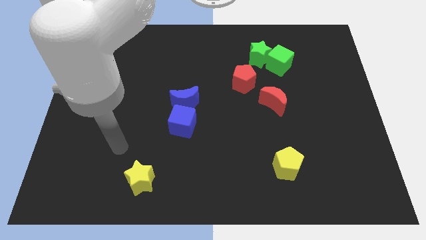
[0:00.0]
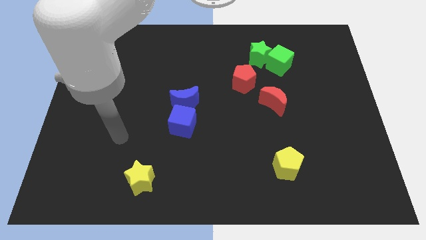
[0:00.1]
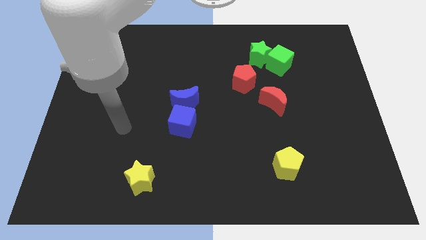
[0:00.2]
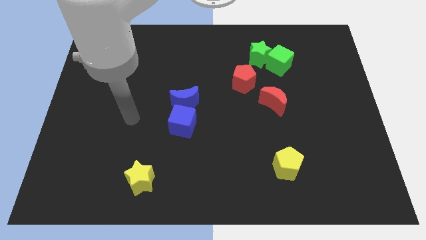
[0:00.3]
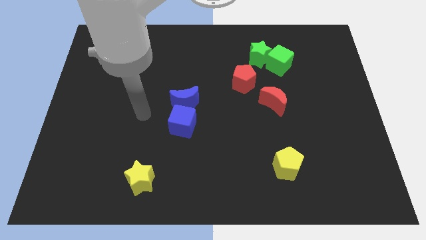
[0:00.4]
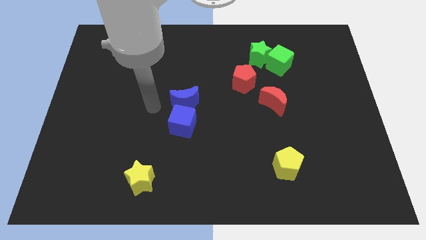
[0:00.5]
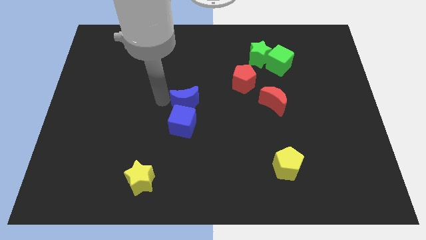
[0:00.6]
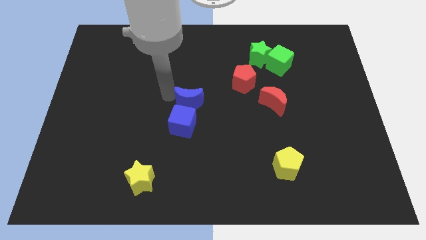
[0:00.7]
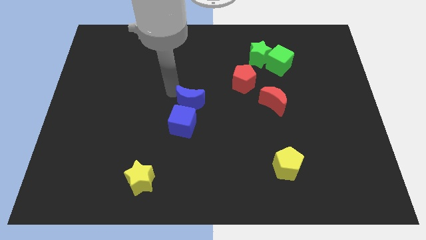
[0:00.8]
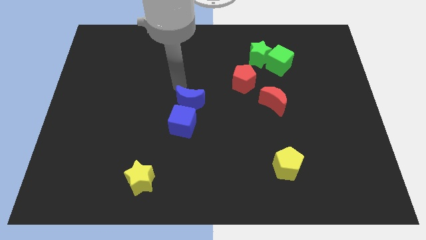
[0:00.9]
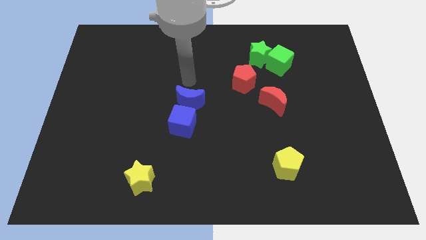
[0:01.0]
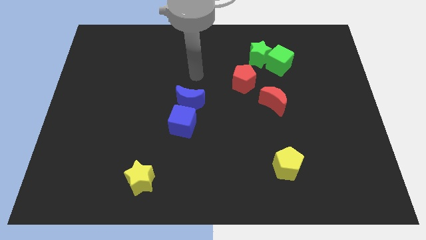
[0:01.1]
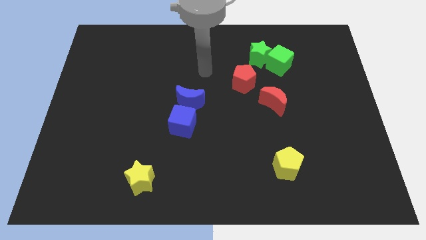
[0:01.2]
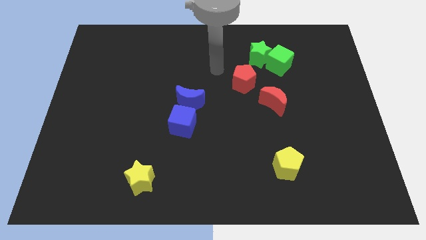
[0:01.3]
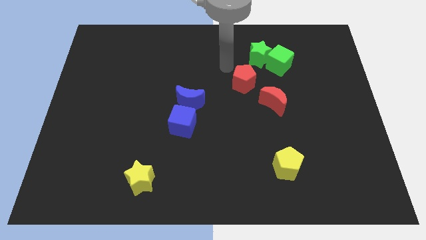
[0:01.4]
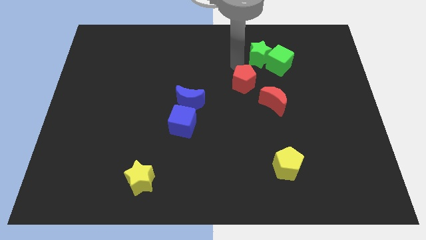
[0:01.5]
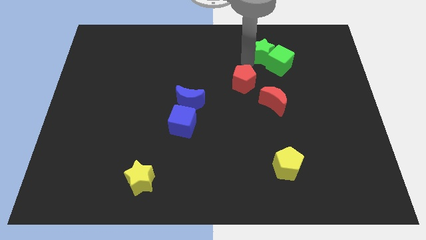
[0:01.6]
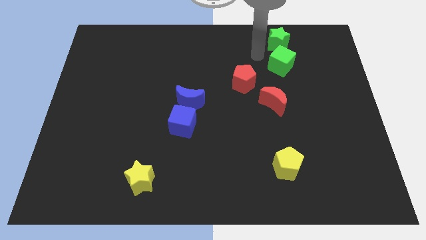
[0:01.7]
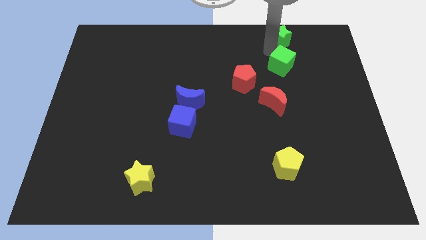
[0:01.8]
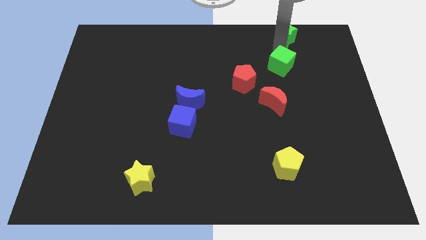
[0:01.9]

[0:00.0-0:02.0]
pull the green cube apart from the green star

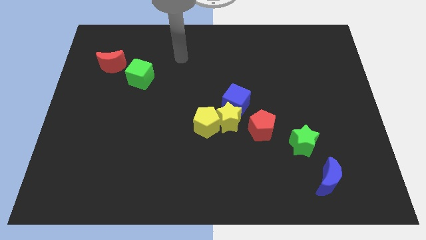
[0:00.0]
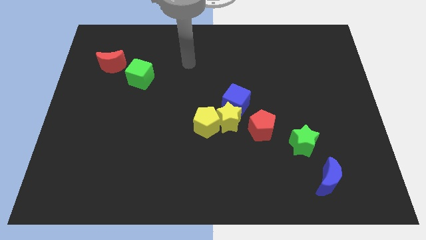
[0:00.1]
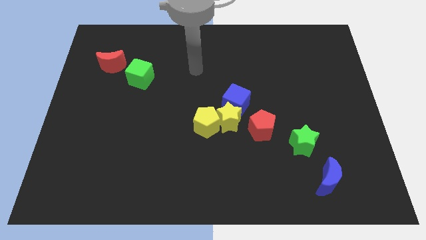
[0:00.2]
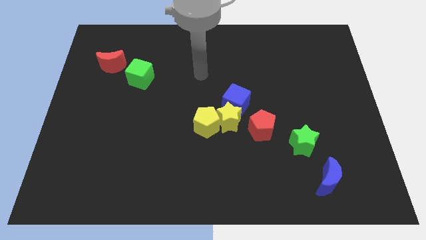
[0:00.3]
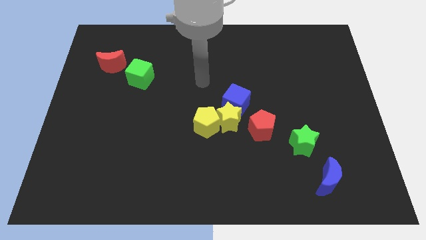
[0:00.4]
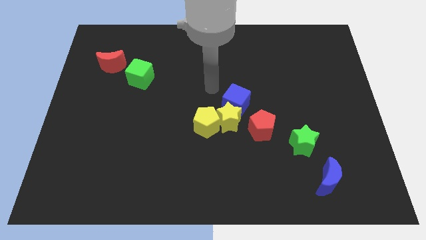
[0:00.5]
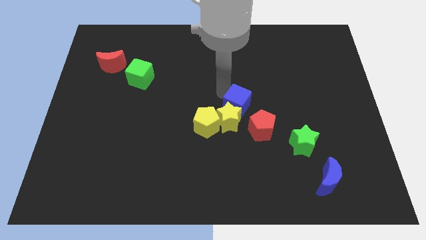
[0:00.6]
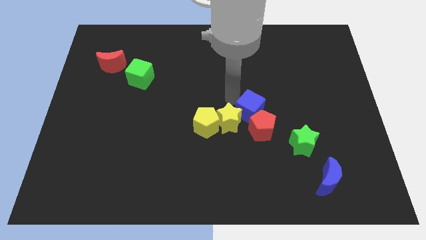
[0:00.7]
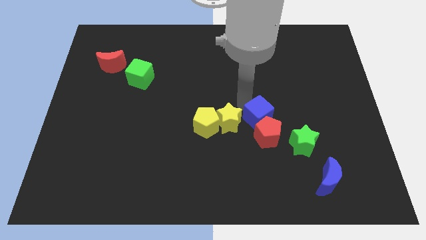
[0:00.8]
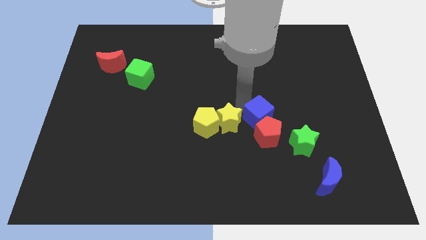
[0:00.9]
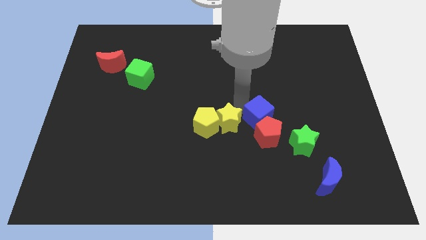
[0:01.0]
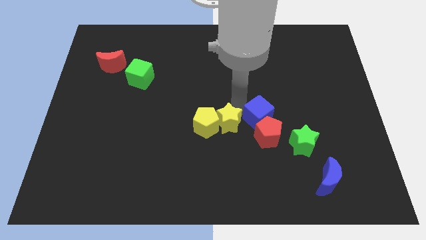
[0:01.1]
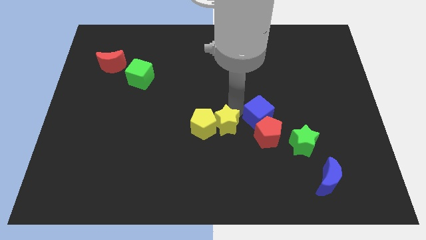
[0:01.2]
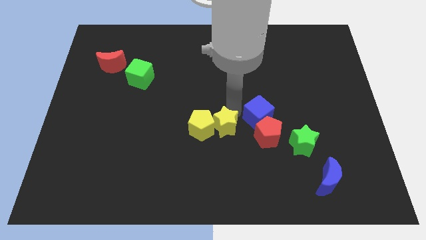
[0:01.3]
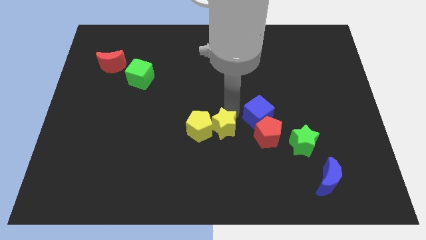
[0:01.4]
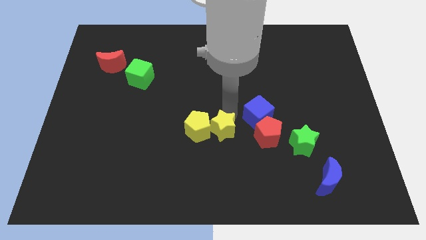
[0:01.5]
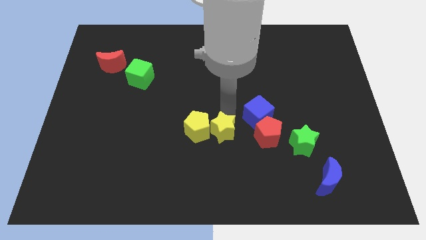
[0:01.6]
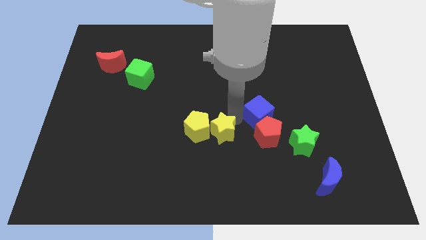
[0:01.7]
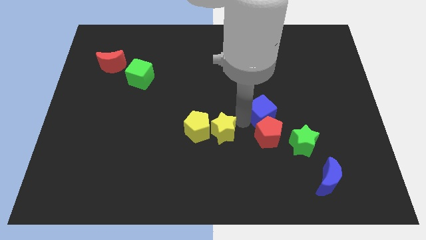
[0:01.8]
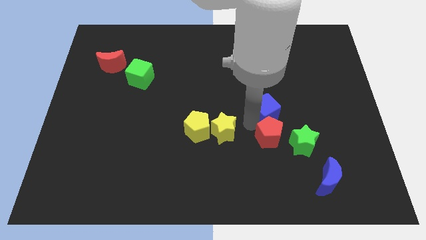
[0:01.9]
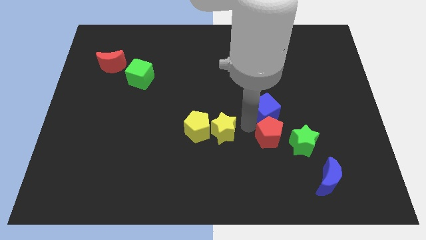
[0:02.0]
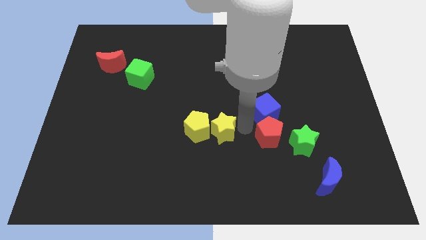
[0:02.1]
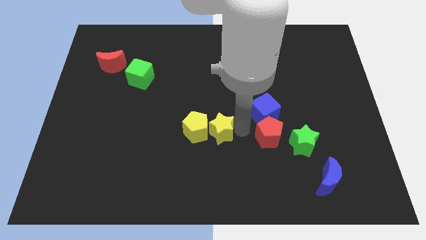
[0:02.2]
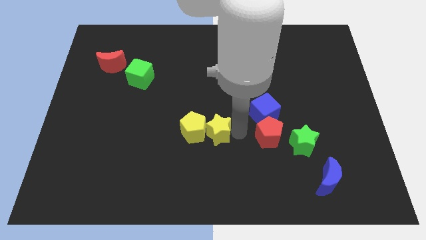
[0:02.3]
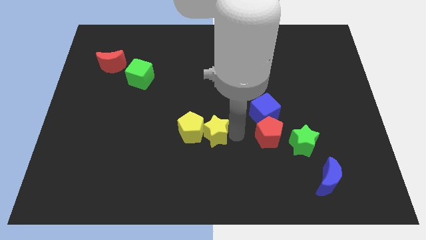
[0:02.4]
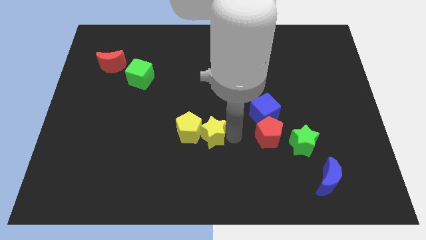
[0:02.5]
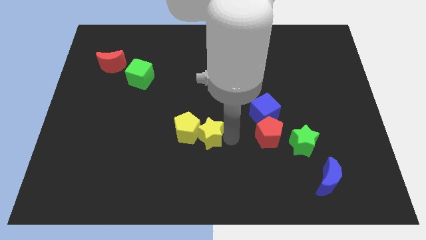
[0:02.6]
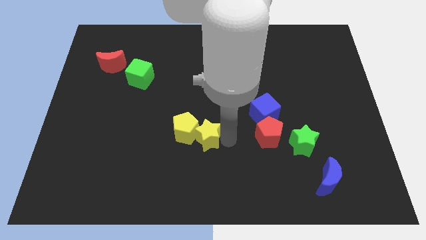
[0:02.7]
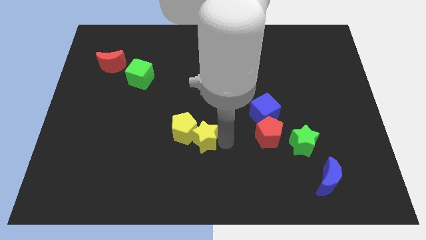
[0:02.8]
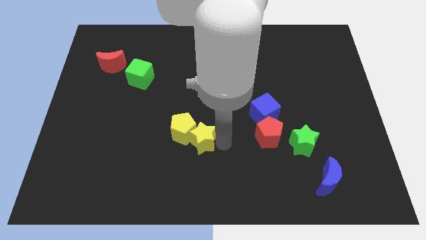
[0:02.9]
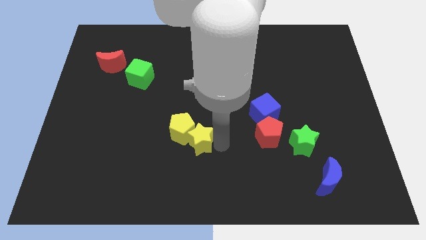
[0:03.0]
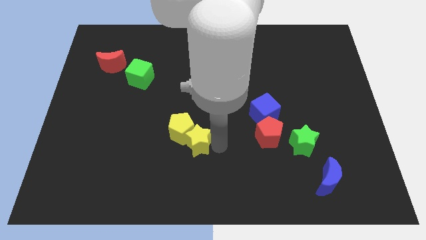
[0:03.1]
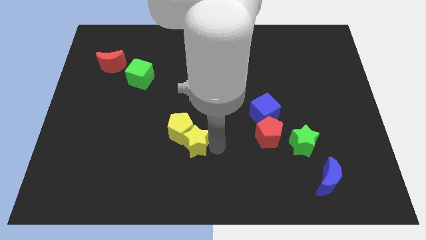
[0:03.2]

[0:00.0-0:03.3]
pull the yellow star apart from the group

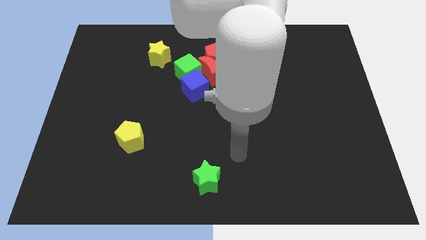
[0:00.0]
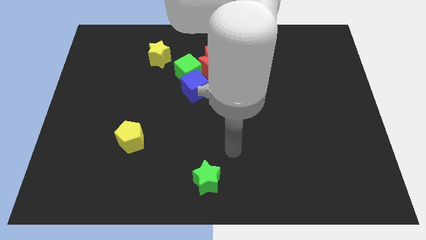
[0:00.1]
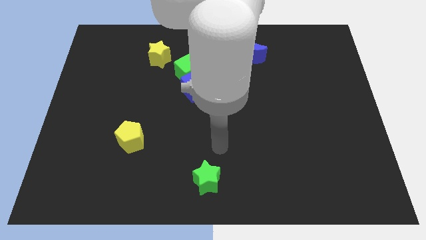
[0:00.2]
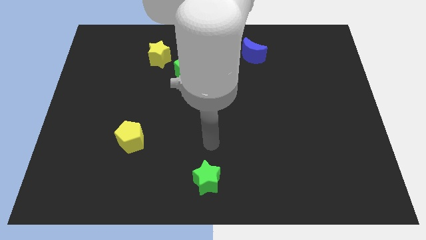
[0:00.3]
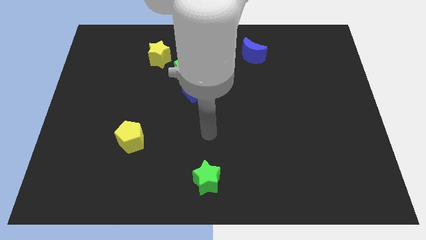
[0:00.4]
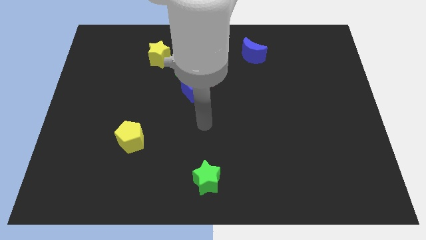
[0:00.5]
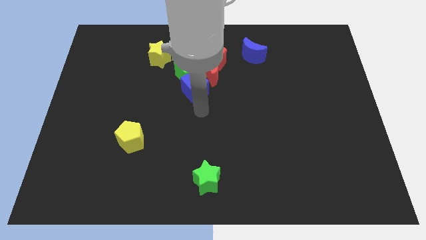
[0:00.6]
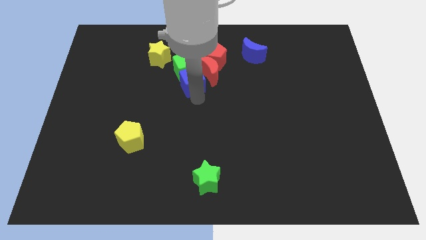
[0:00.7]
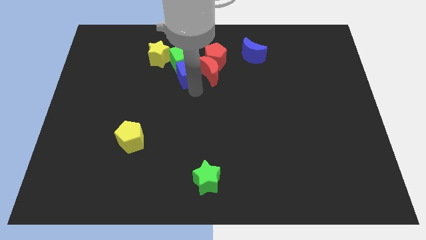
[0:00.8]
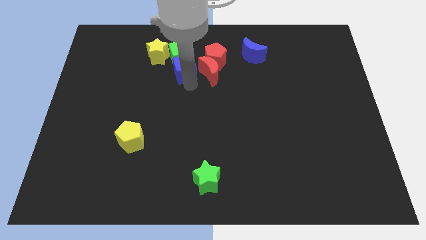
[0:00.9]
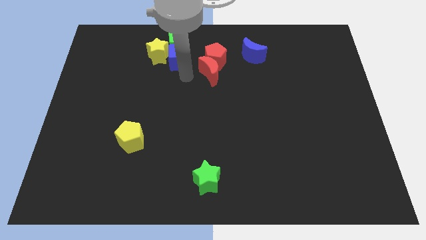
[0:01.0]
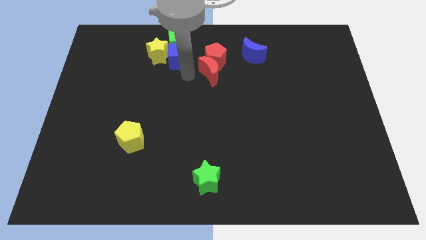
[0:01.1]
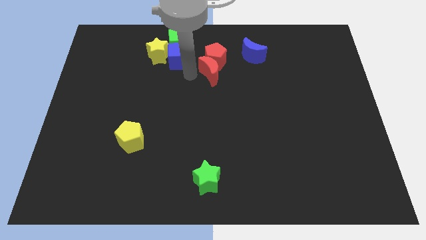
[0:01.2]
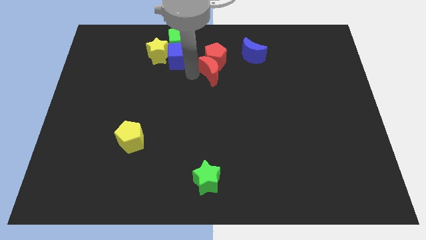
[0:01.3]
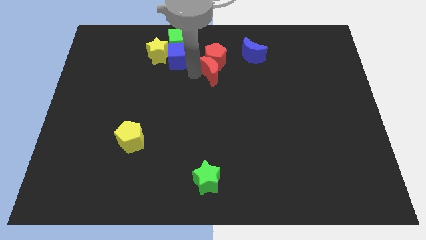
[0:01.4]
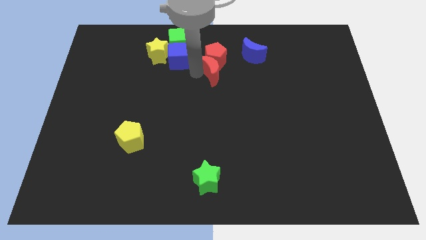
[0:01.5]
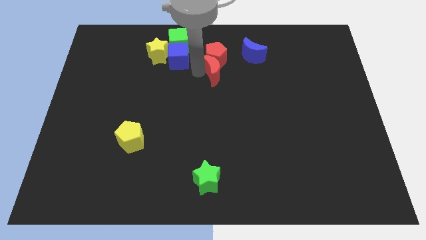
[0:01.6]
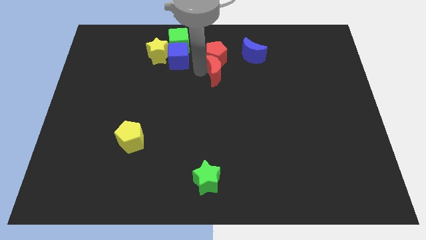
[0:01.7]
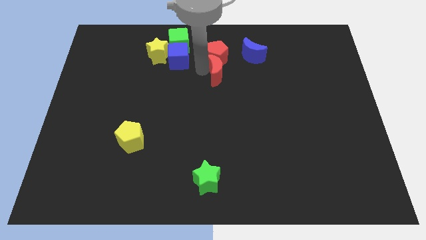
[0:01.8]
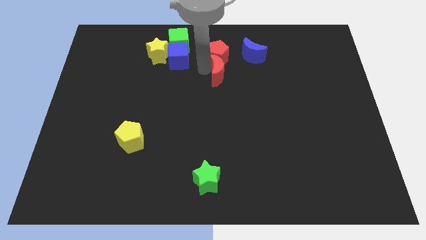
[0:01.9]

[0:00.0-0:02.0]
pull the red moon apart from the clump

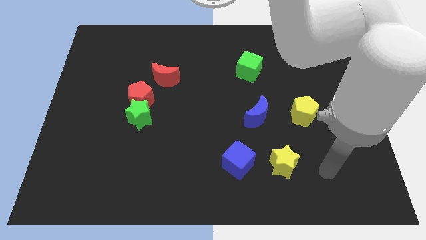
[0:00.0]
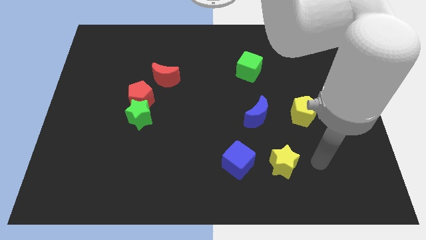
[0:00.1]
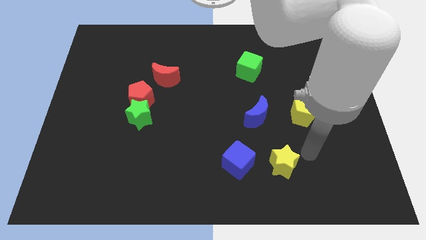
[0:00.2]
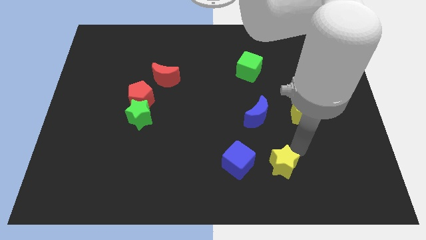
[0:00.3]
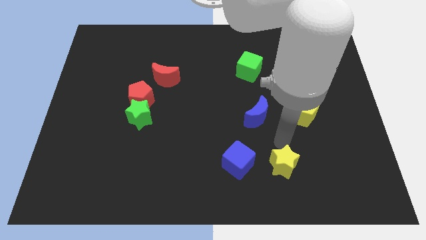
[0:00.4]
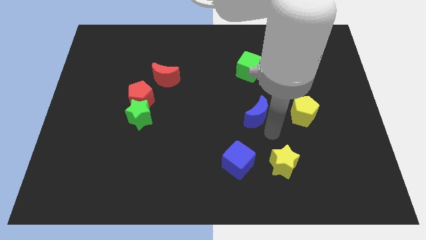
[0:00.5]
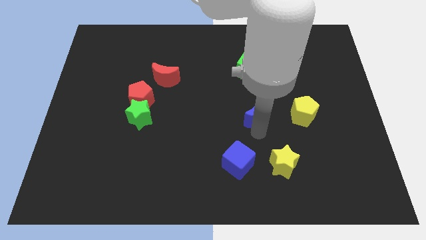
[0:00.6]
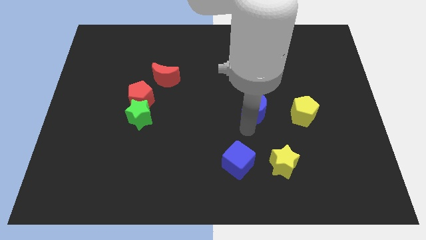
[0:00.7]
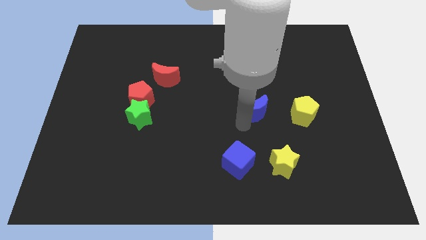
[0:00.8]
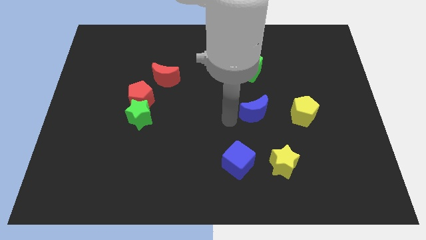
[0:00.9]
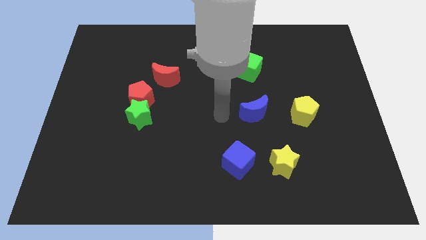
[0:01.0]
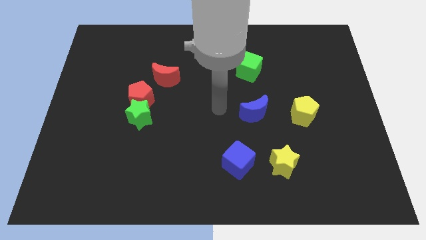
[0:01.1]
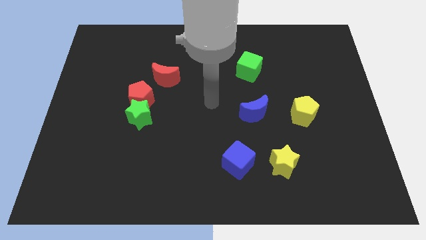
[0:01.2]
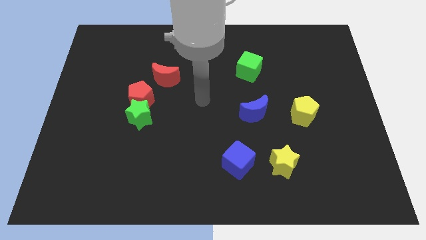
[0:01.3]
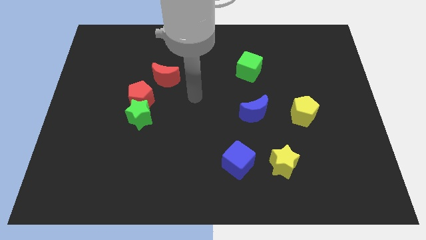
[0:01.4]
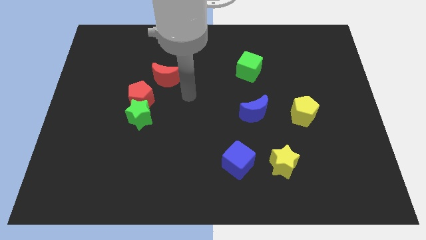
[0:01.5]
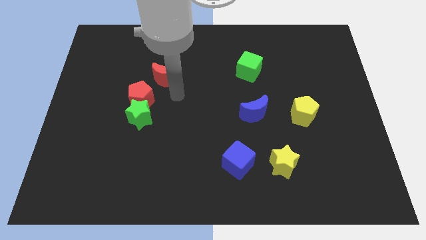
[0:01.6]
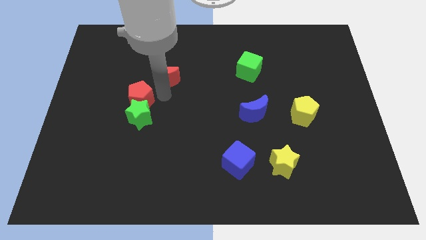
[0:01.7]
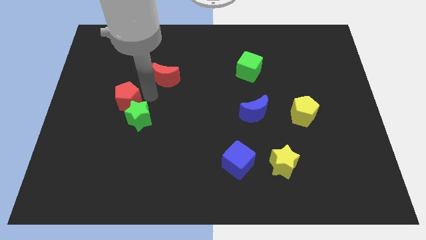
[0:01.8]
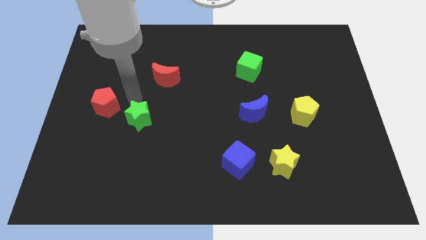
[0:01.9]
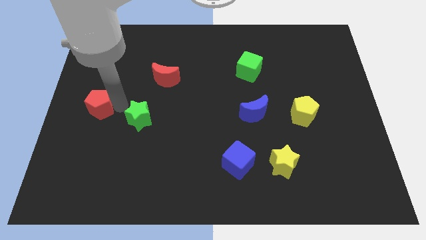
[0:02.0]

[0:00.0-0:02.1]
separate the green star from the red pentagon
